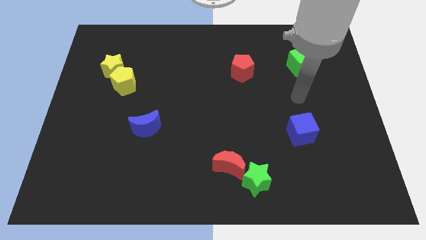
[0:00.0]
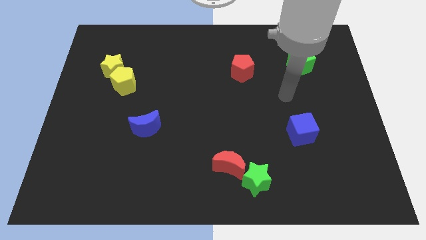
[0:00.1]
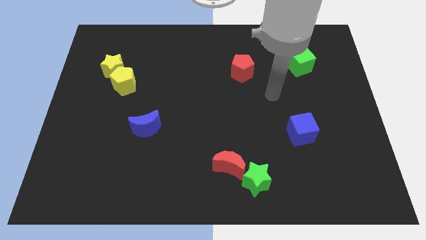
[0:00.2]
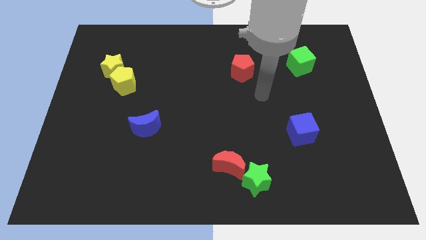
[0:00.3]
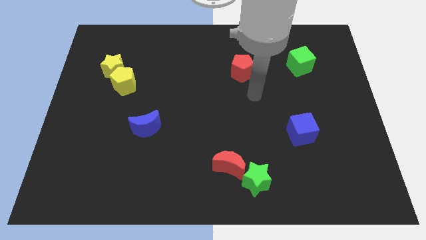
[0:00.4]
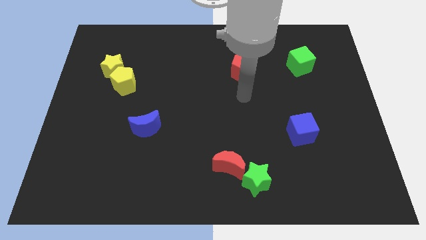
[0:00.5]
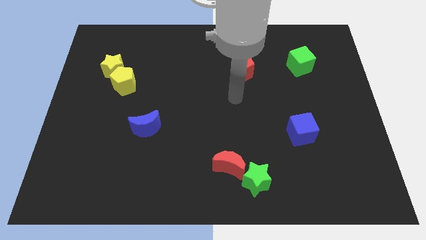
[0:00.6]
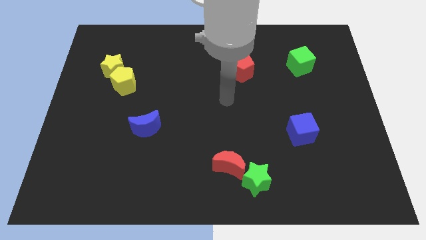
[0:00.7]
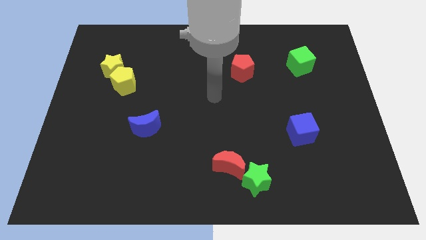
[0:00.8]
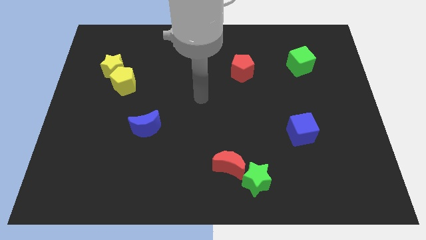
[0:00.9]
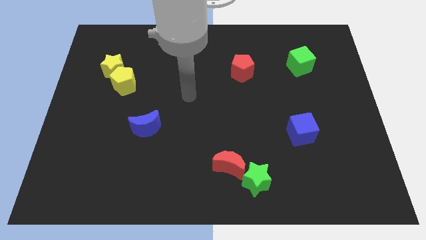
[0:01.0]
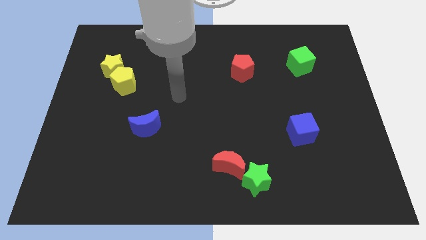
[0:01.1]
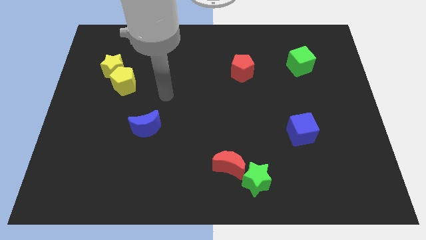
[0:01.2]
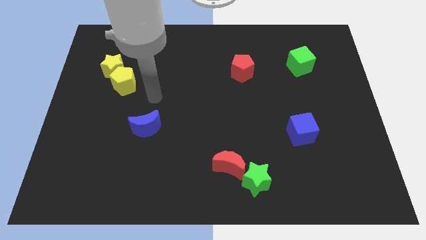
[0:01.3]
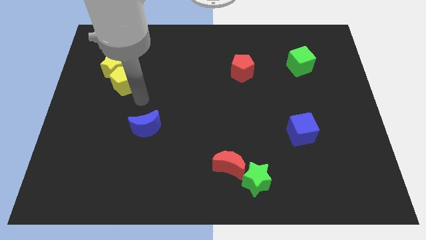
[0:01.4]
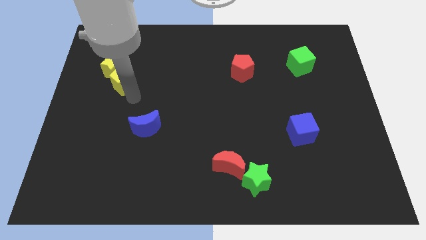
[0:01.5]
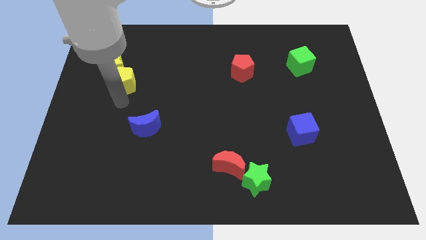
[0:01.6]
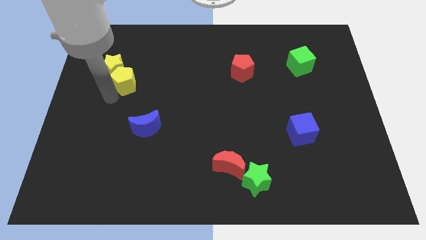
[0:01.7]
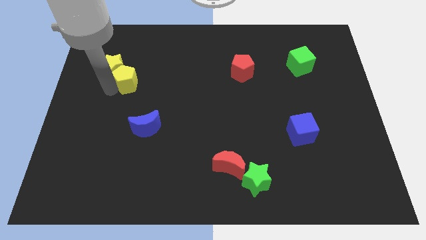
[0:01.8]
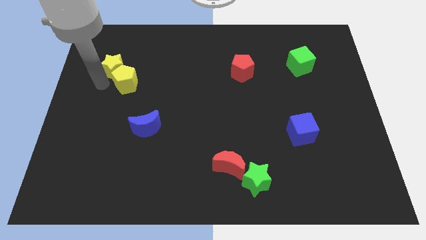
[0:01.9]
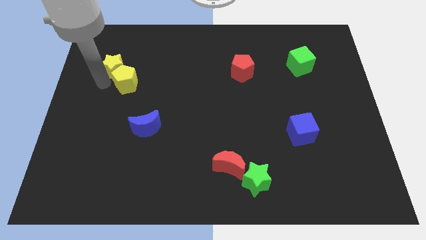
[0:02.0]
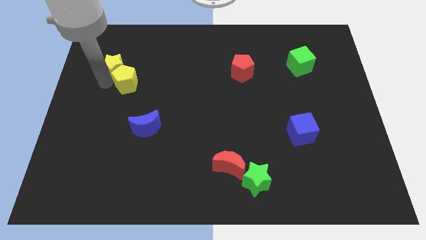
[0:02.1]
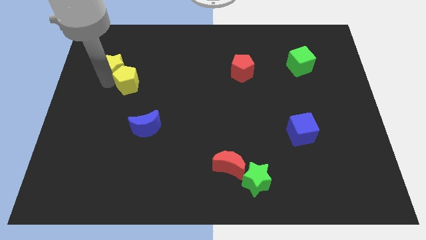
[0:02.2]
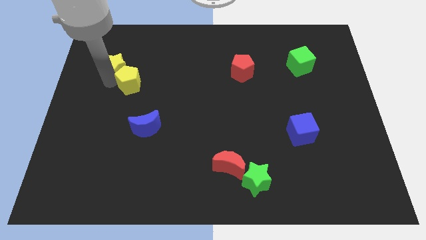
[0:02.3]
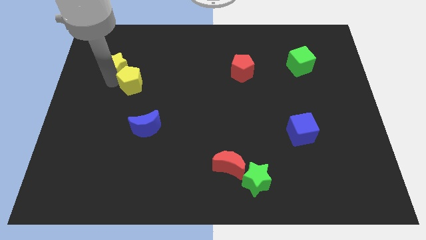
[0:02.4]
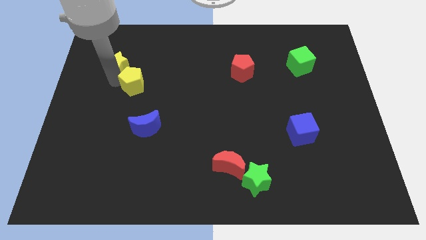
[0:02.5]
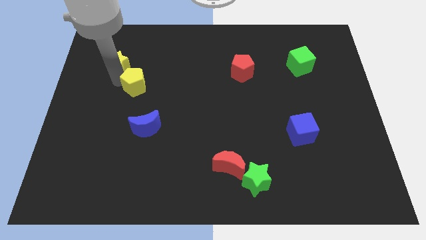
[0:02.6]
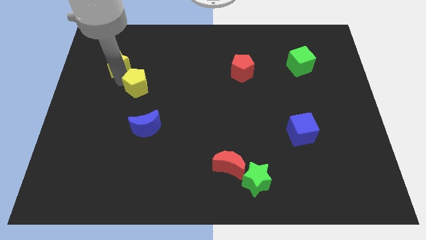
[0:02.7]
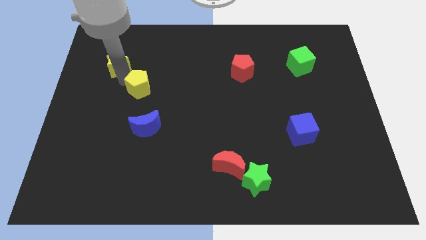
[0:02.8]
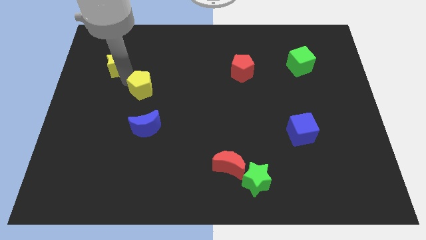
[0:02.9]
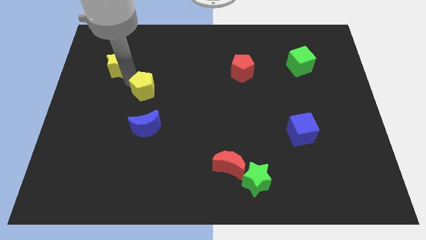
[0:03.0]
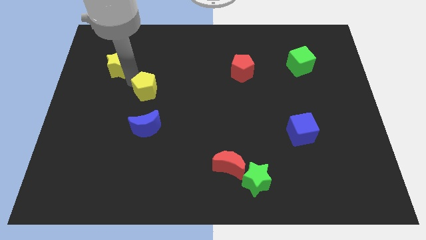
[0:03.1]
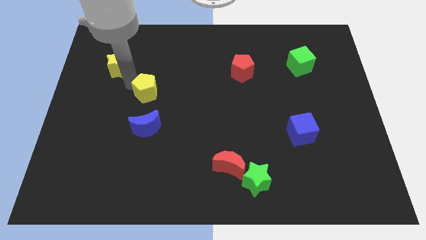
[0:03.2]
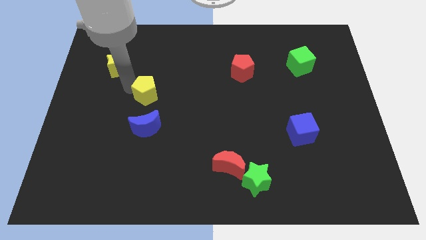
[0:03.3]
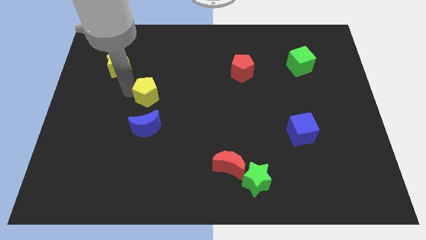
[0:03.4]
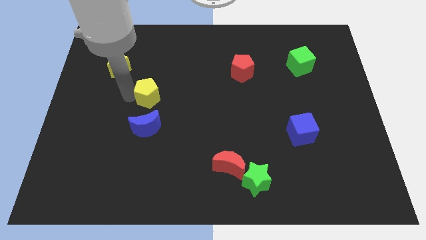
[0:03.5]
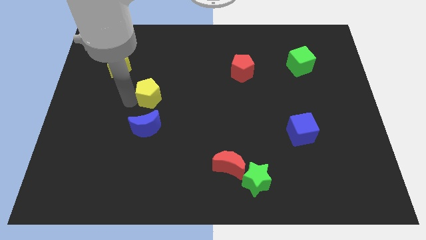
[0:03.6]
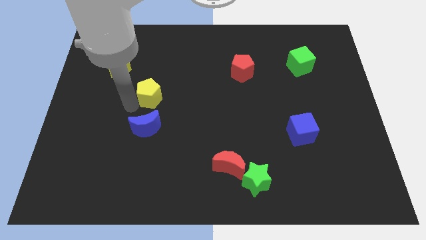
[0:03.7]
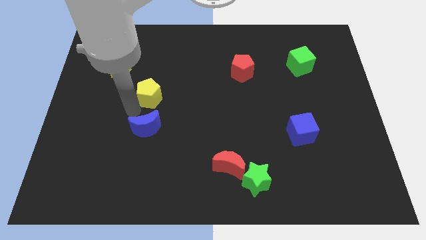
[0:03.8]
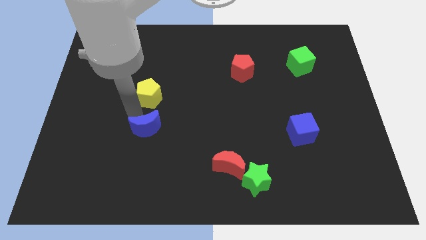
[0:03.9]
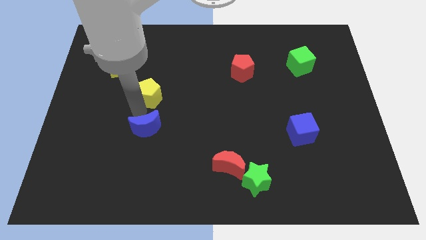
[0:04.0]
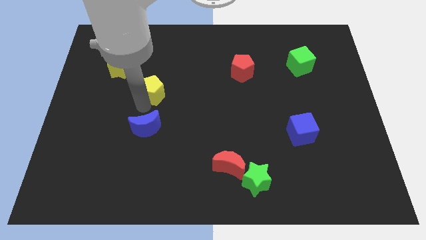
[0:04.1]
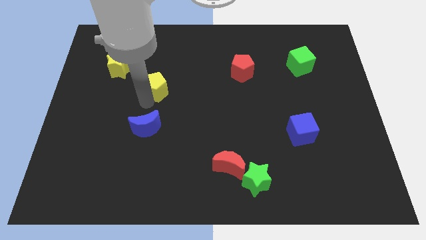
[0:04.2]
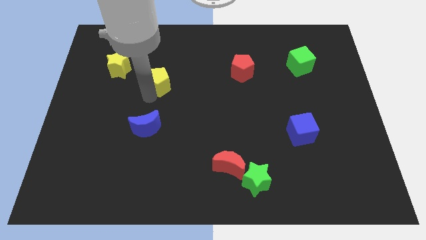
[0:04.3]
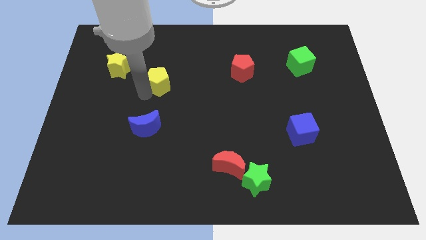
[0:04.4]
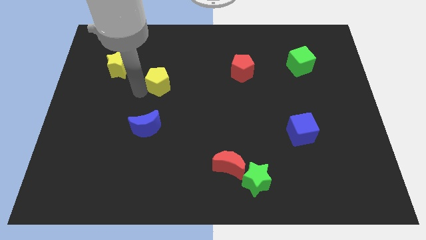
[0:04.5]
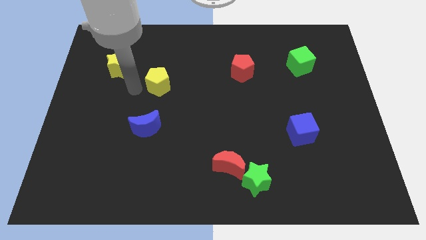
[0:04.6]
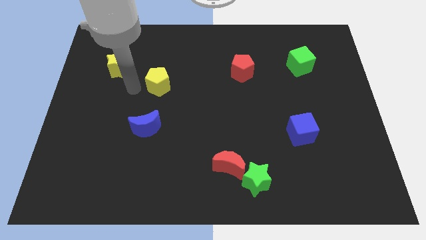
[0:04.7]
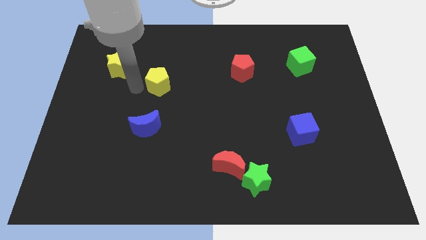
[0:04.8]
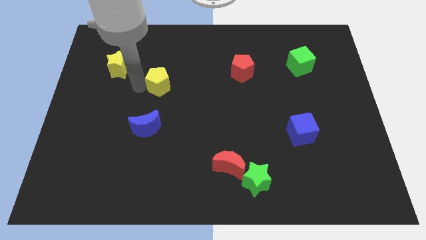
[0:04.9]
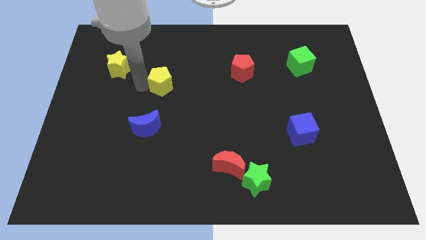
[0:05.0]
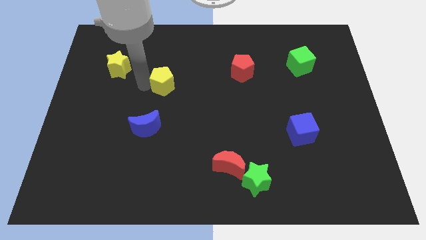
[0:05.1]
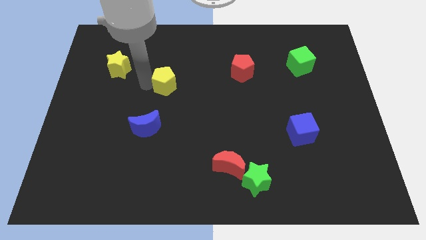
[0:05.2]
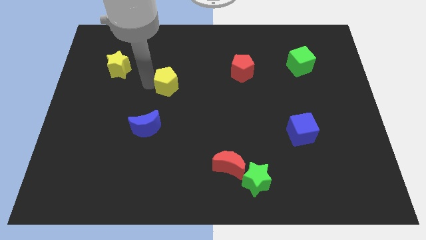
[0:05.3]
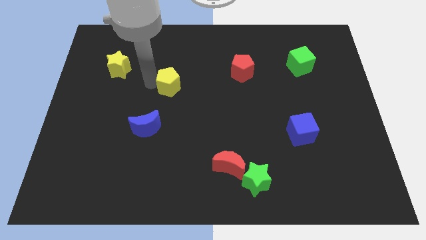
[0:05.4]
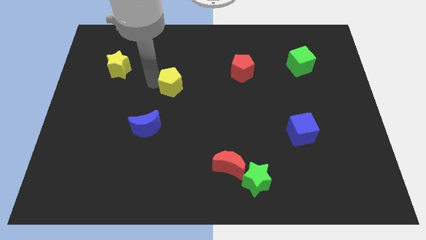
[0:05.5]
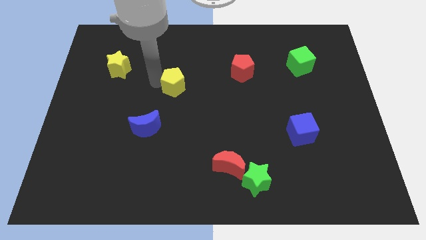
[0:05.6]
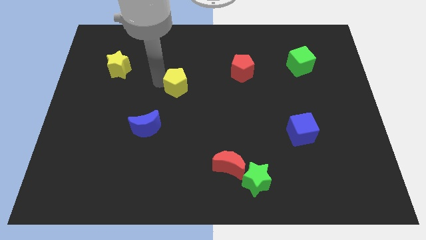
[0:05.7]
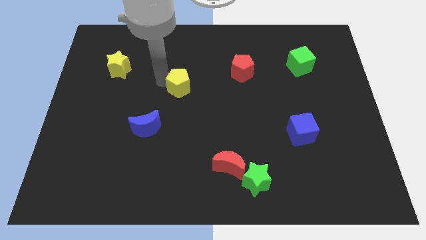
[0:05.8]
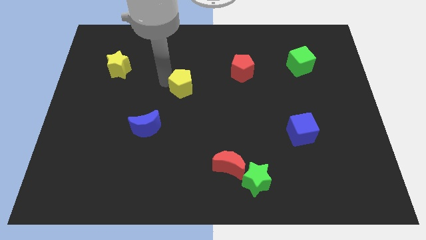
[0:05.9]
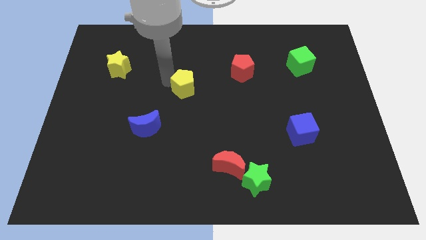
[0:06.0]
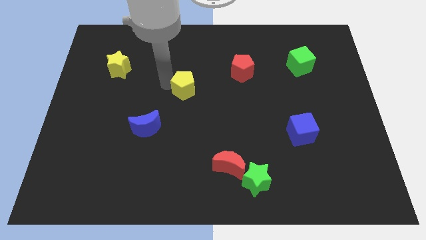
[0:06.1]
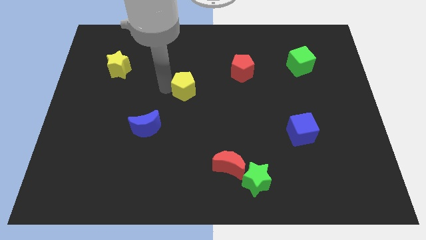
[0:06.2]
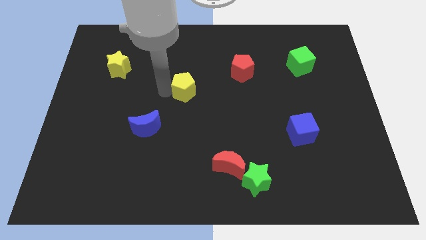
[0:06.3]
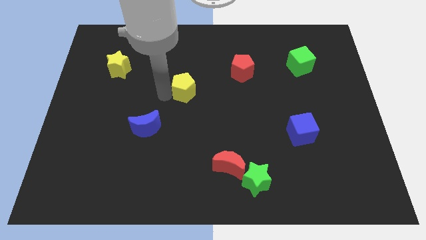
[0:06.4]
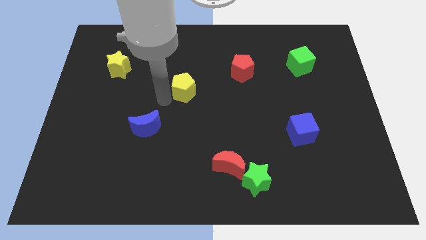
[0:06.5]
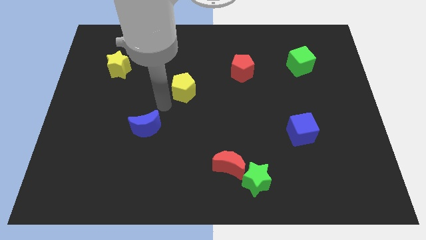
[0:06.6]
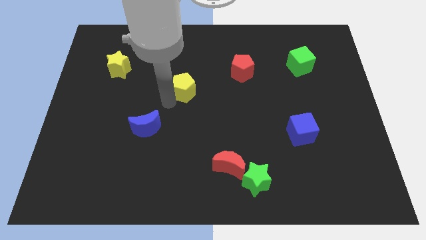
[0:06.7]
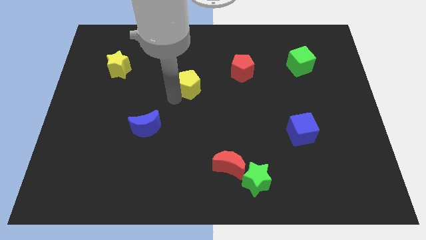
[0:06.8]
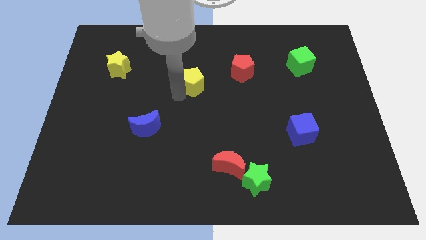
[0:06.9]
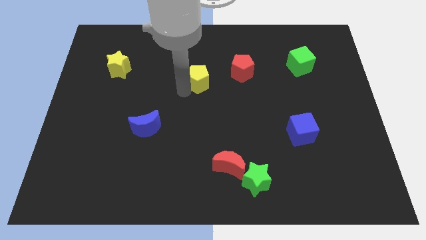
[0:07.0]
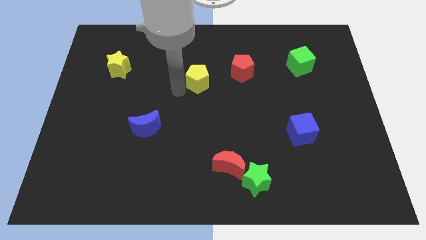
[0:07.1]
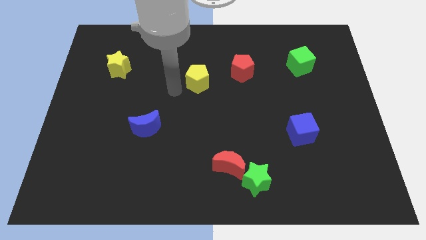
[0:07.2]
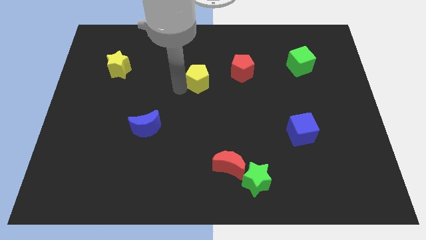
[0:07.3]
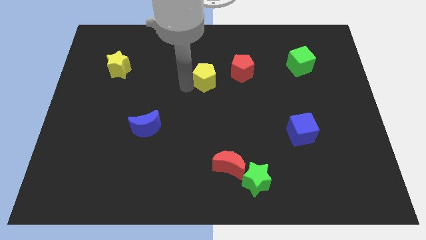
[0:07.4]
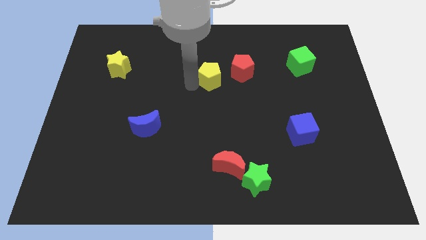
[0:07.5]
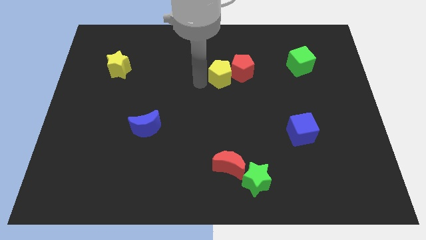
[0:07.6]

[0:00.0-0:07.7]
move the yellow pentagon to the red pentagon

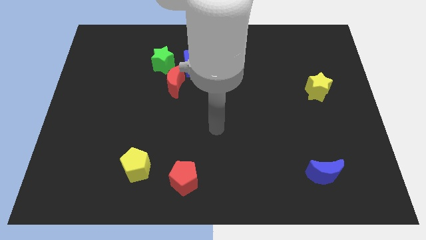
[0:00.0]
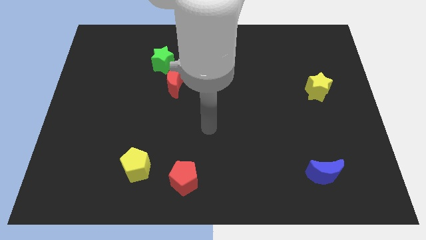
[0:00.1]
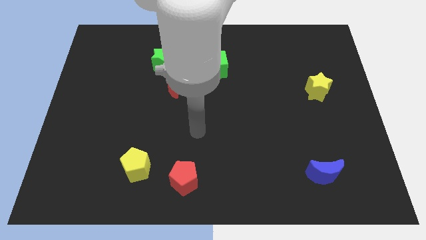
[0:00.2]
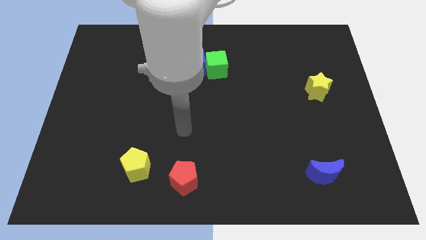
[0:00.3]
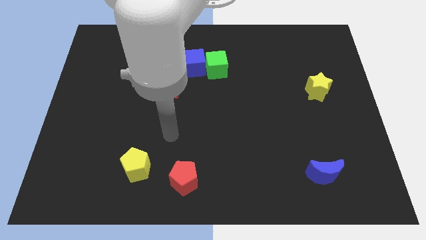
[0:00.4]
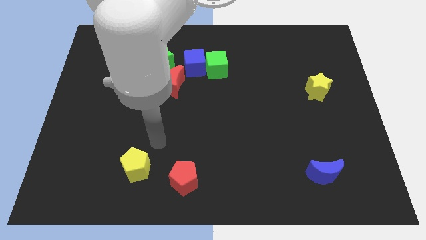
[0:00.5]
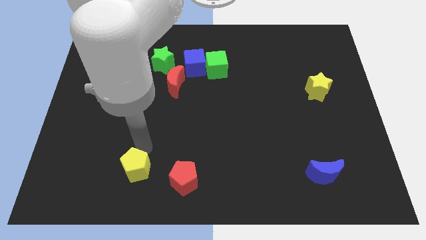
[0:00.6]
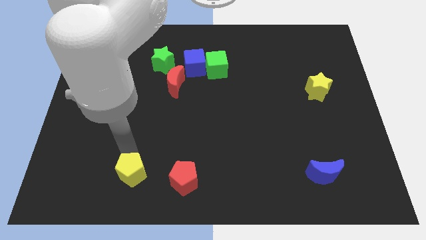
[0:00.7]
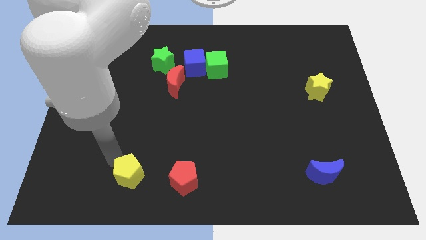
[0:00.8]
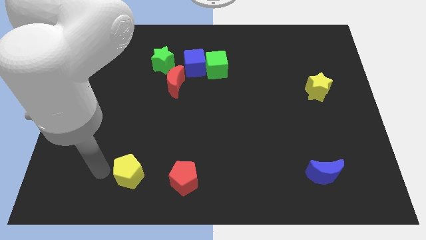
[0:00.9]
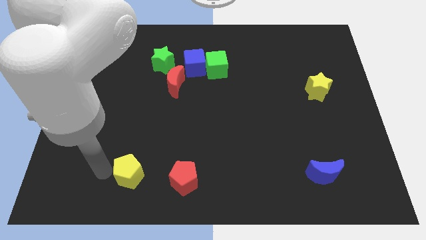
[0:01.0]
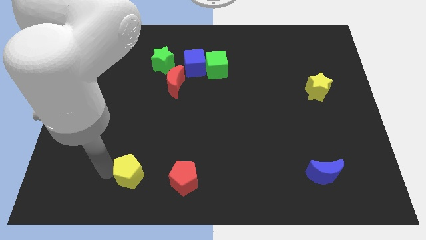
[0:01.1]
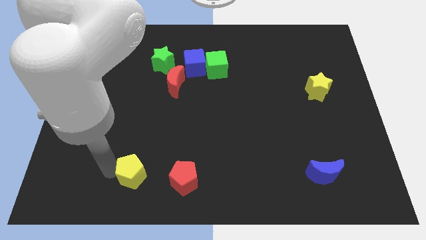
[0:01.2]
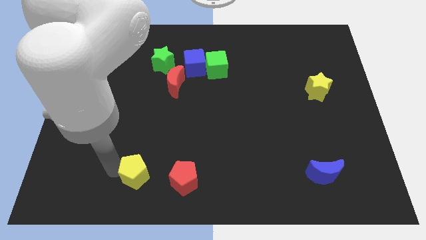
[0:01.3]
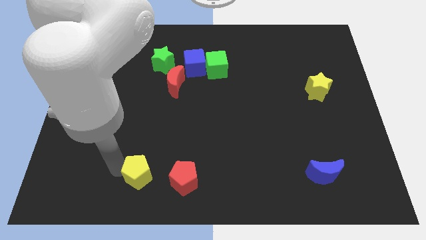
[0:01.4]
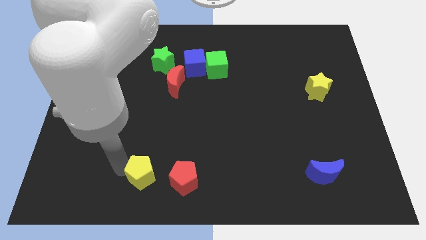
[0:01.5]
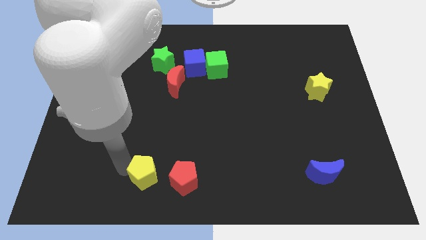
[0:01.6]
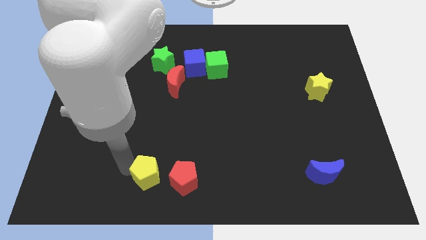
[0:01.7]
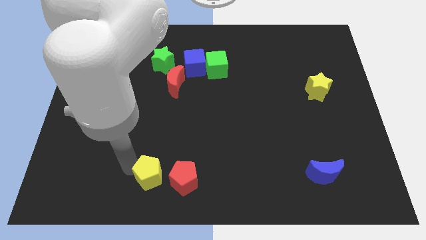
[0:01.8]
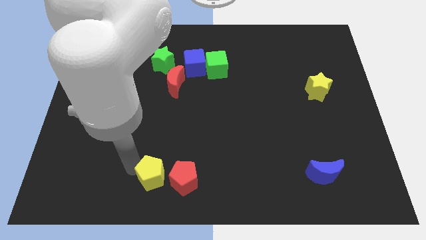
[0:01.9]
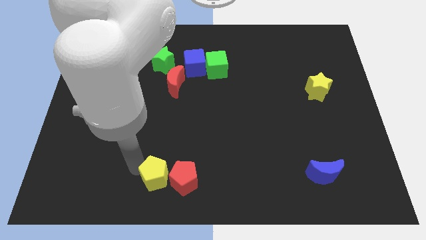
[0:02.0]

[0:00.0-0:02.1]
move the yellow pentagon close to the red pentagon
